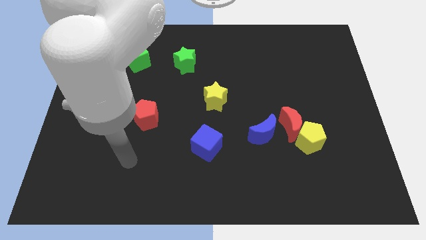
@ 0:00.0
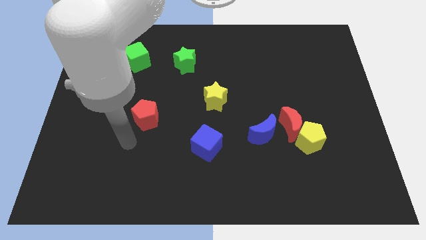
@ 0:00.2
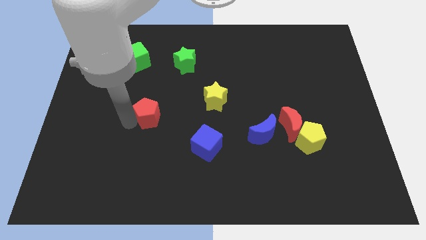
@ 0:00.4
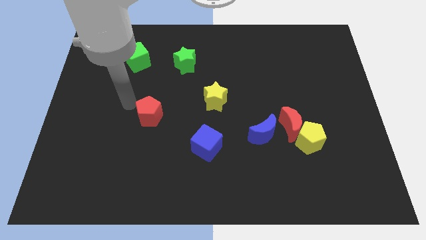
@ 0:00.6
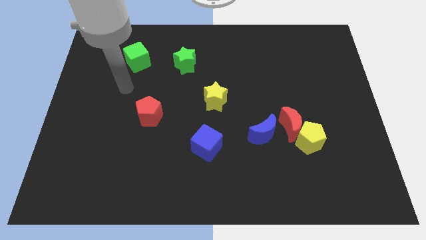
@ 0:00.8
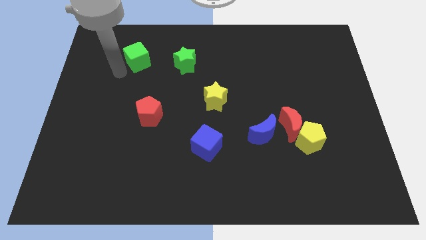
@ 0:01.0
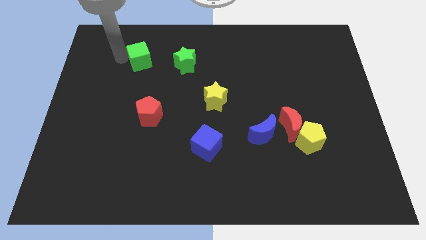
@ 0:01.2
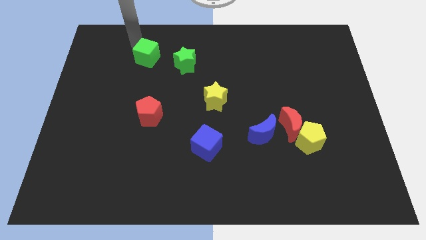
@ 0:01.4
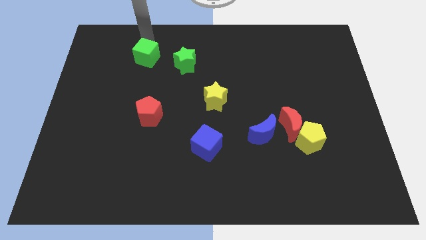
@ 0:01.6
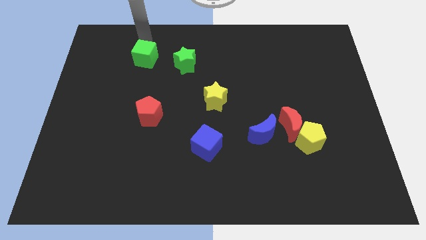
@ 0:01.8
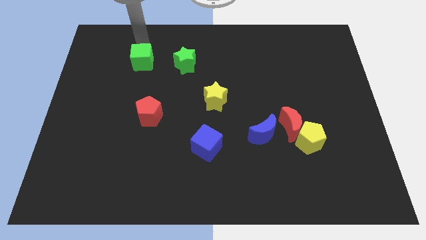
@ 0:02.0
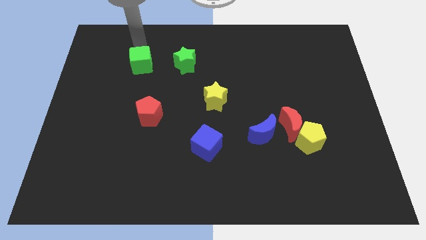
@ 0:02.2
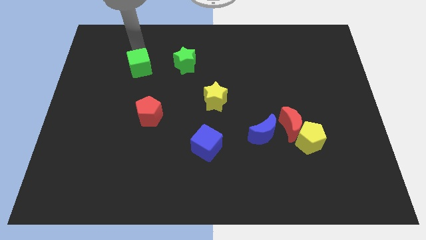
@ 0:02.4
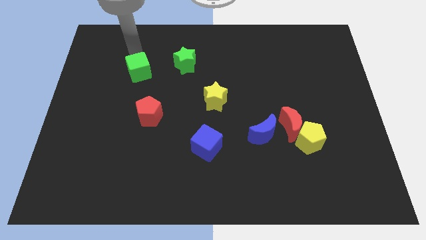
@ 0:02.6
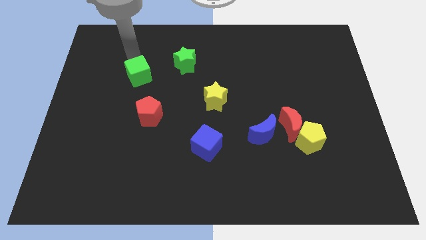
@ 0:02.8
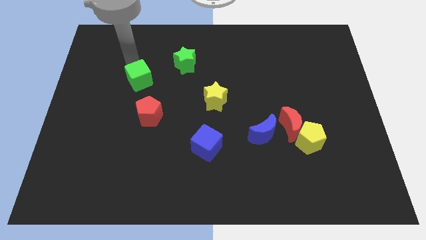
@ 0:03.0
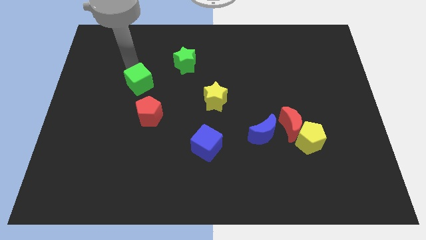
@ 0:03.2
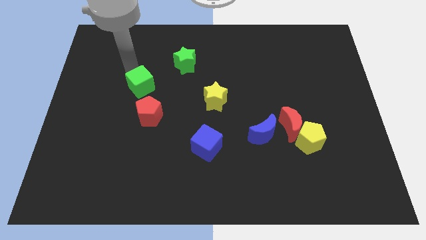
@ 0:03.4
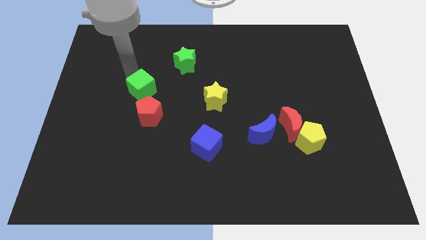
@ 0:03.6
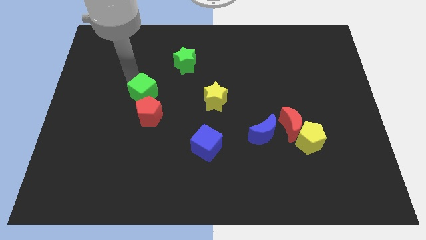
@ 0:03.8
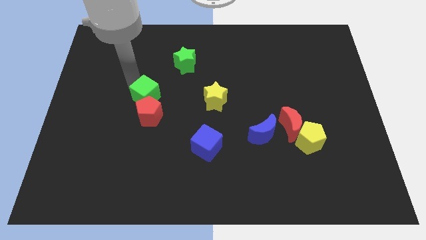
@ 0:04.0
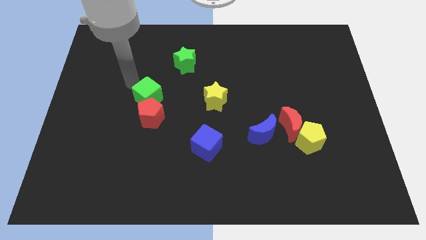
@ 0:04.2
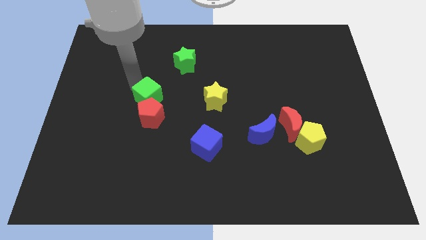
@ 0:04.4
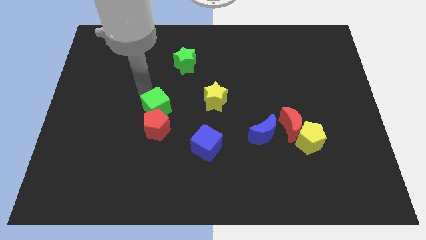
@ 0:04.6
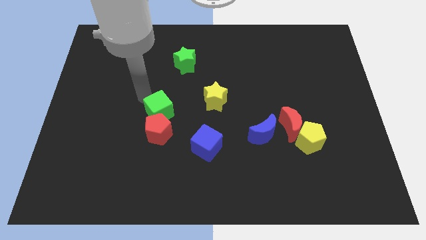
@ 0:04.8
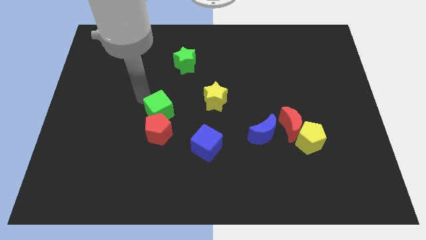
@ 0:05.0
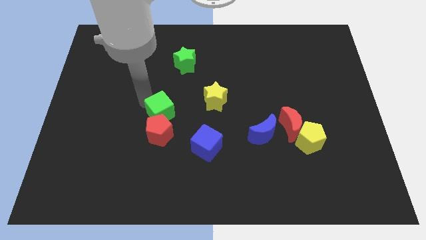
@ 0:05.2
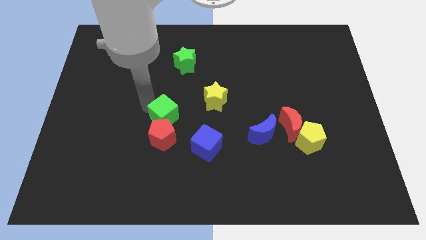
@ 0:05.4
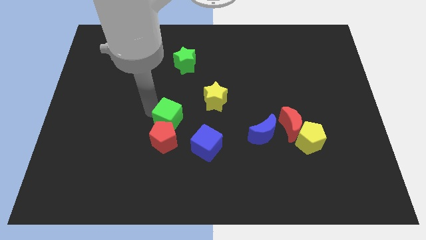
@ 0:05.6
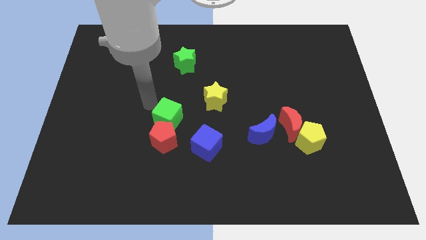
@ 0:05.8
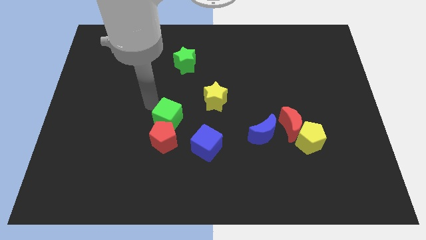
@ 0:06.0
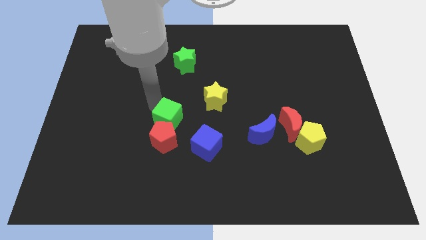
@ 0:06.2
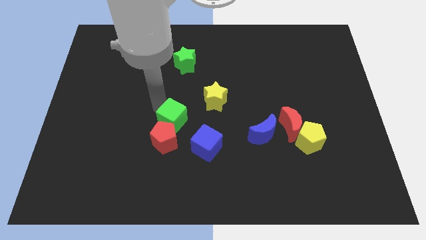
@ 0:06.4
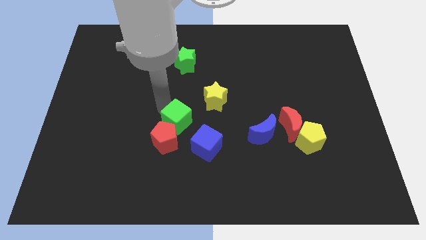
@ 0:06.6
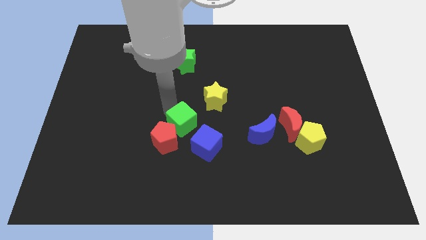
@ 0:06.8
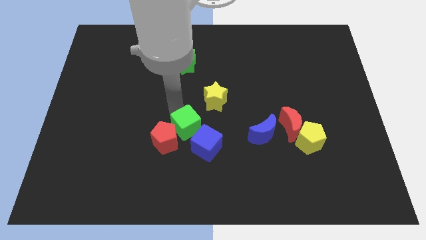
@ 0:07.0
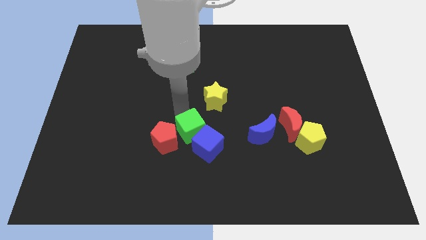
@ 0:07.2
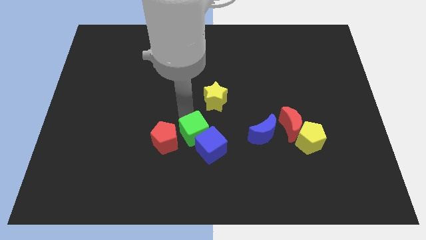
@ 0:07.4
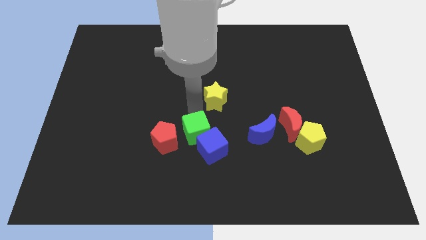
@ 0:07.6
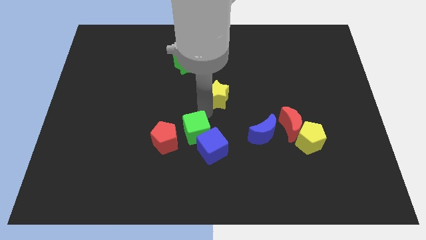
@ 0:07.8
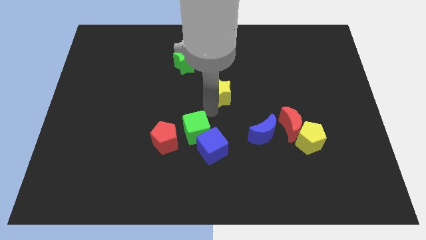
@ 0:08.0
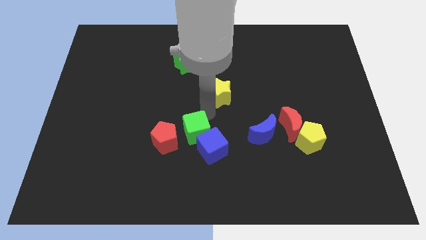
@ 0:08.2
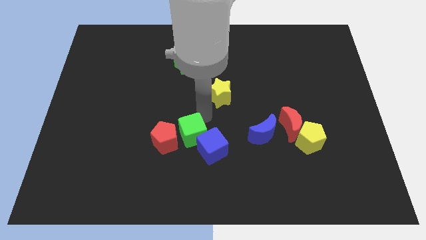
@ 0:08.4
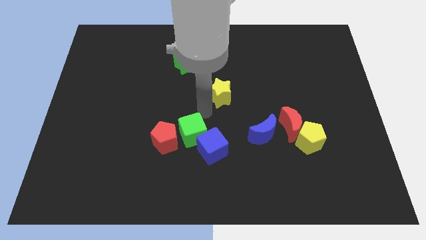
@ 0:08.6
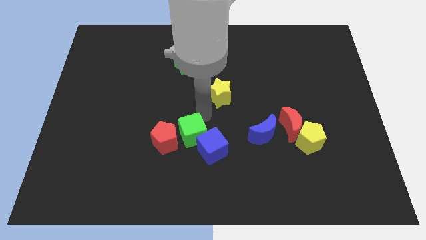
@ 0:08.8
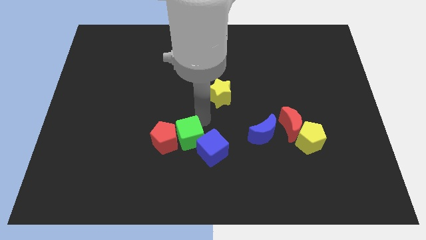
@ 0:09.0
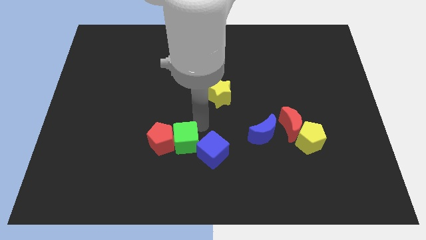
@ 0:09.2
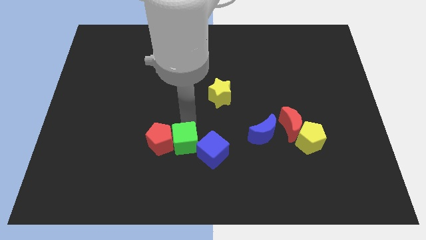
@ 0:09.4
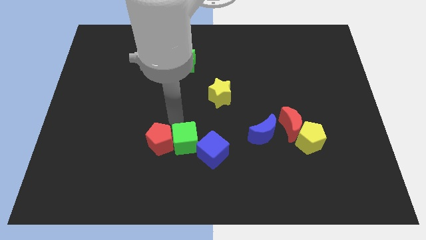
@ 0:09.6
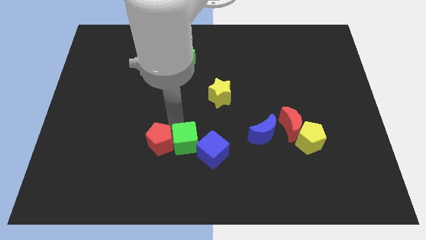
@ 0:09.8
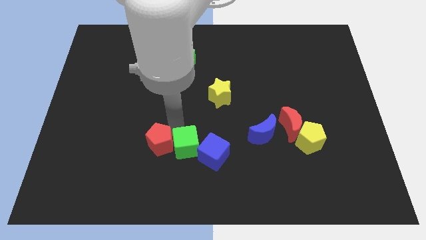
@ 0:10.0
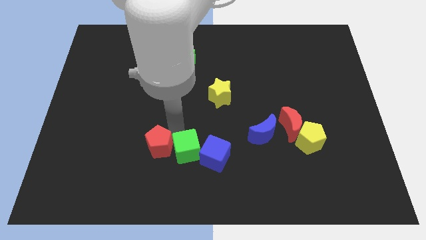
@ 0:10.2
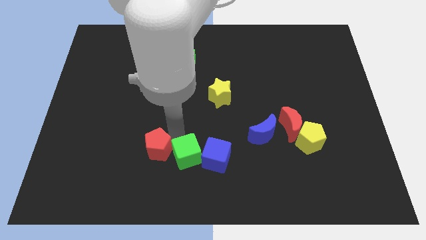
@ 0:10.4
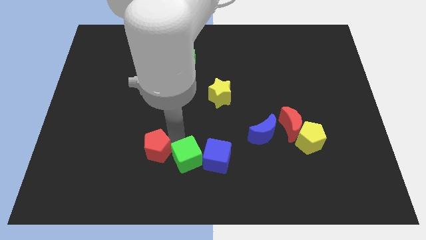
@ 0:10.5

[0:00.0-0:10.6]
push the green cube to the bottom side

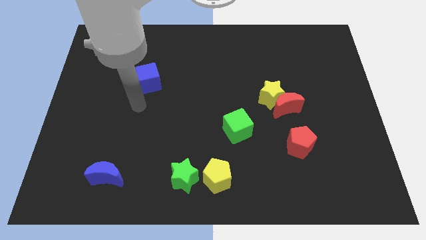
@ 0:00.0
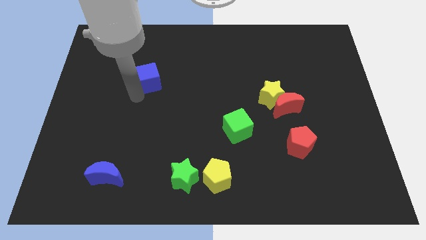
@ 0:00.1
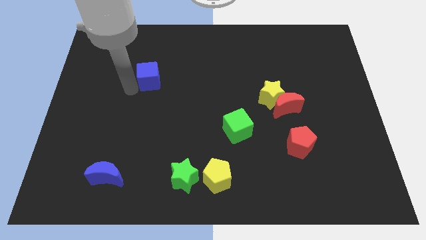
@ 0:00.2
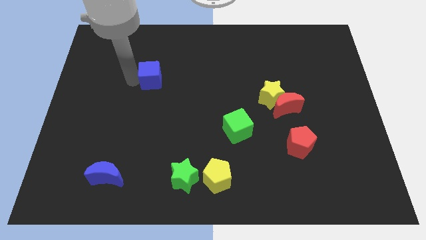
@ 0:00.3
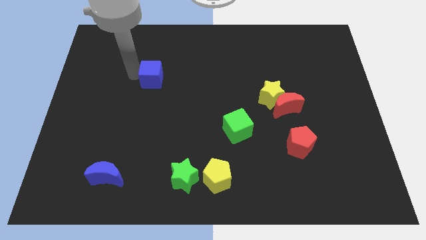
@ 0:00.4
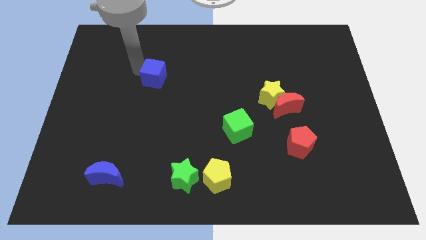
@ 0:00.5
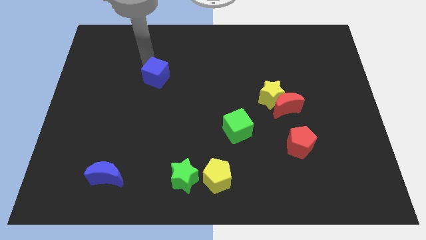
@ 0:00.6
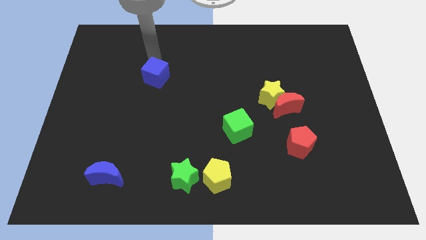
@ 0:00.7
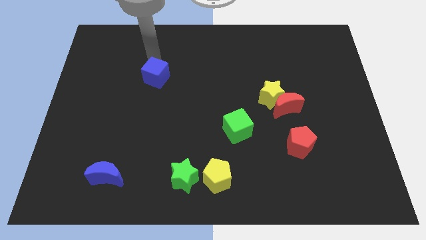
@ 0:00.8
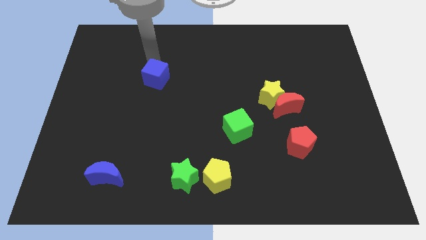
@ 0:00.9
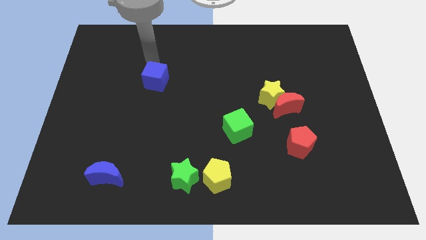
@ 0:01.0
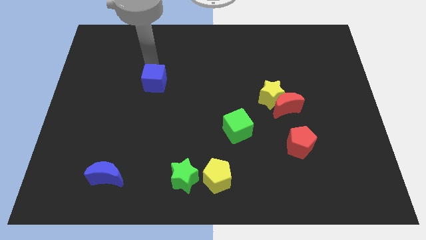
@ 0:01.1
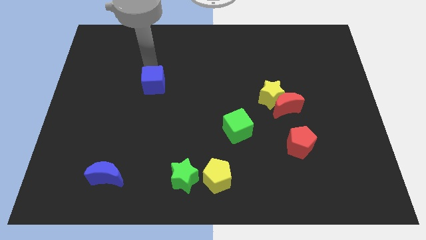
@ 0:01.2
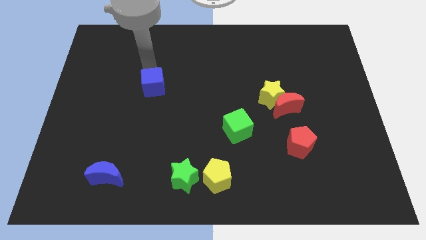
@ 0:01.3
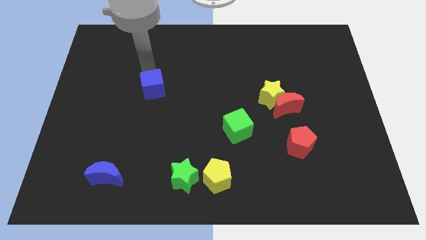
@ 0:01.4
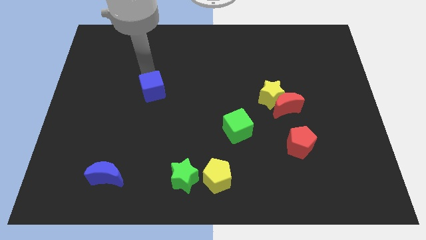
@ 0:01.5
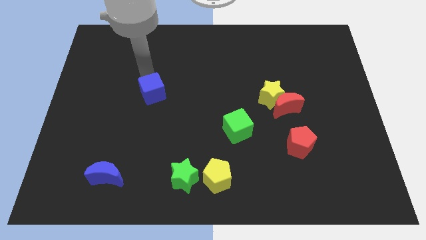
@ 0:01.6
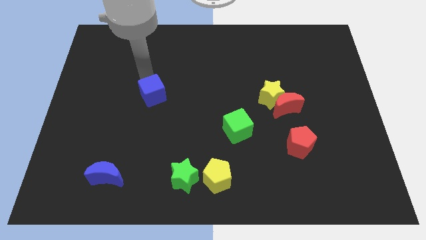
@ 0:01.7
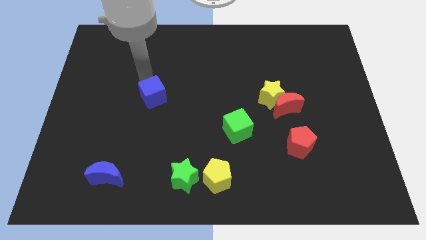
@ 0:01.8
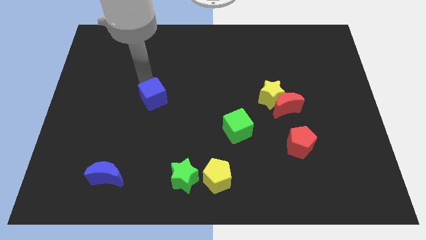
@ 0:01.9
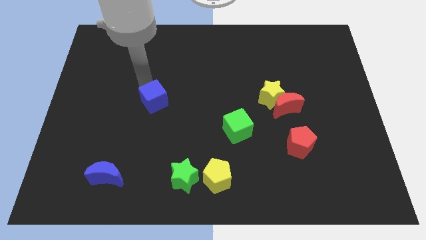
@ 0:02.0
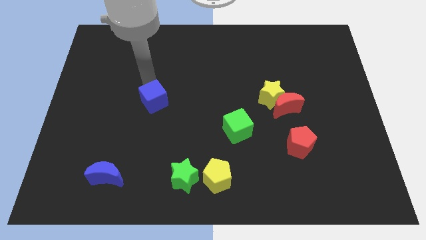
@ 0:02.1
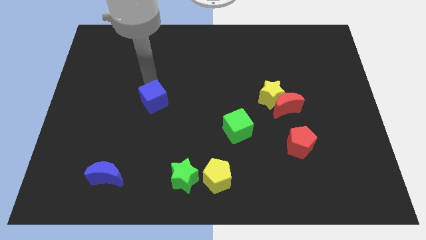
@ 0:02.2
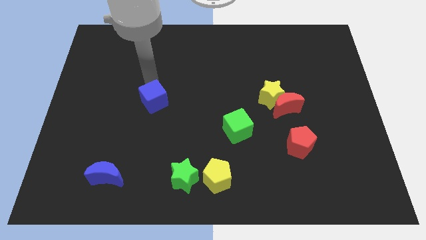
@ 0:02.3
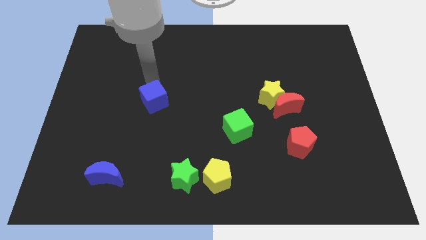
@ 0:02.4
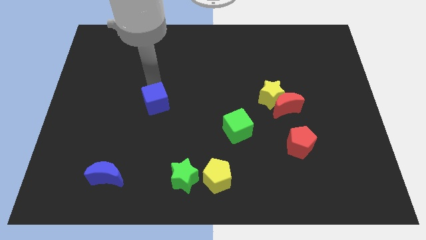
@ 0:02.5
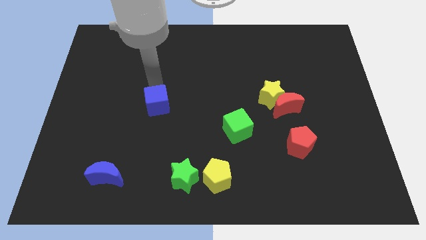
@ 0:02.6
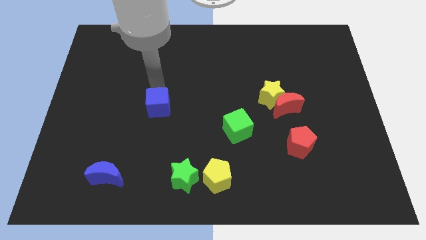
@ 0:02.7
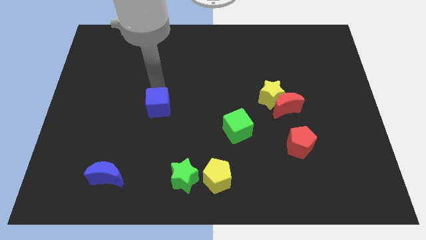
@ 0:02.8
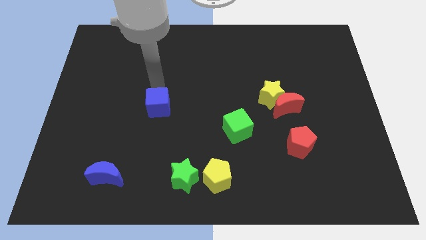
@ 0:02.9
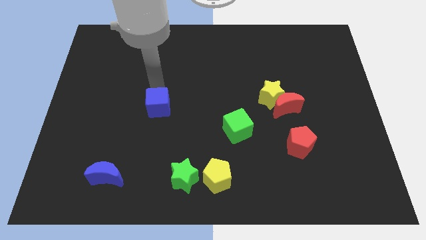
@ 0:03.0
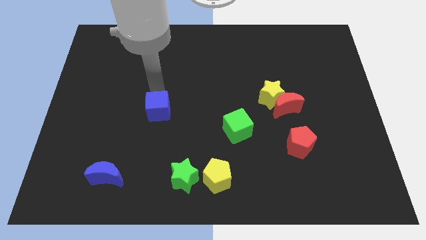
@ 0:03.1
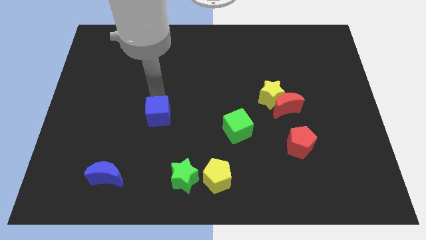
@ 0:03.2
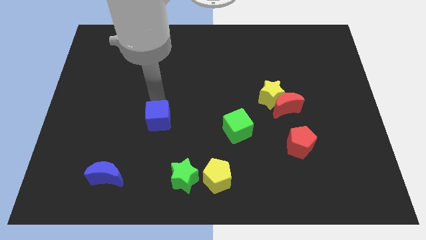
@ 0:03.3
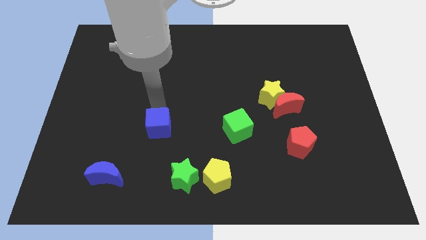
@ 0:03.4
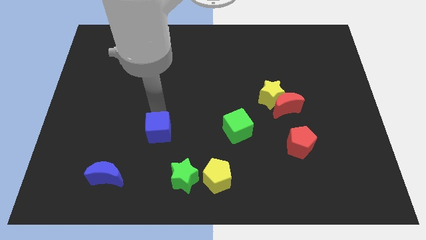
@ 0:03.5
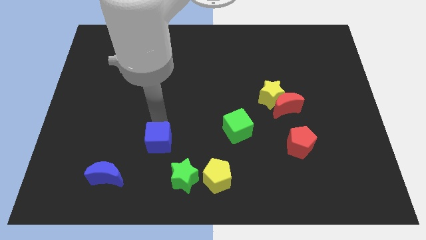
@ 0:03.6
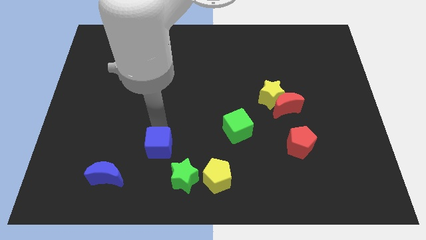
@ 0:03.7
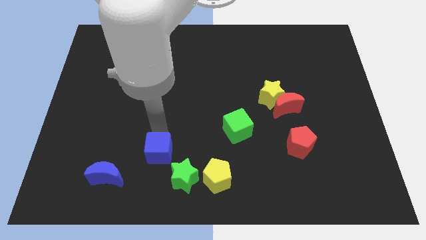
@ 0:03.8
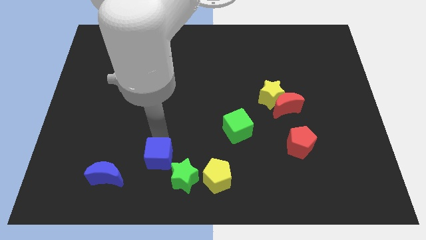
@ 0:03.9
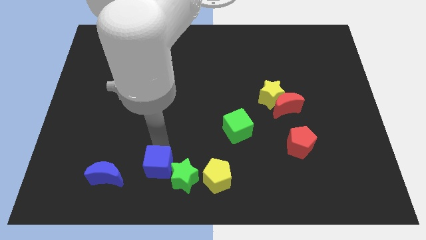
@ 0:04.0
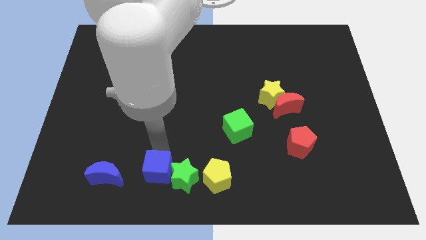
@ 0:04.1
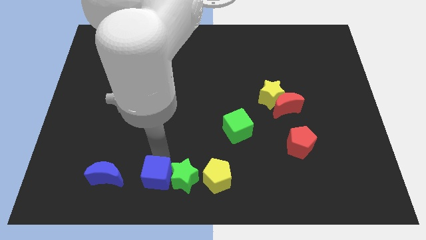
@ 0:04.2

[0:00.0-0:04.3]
slide the blue cube to the bottom side
